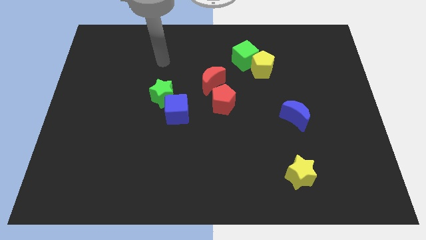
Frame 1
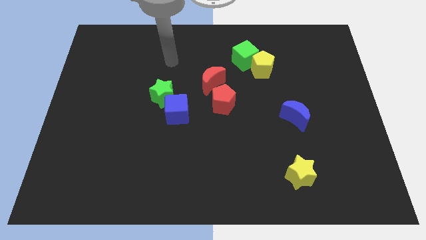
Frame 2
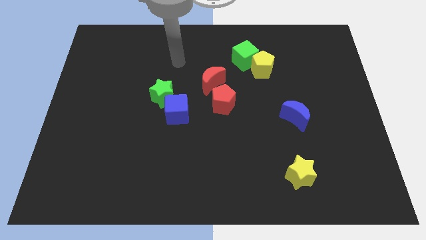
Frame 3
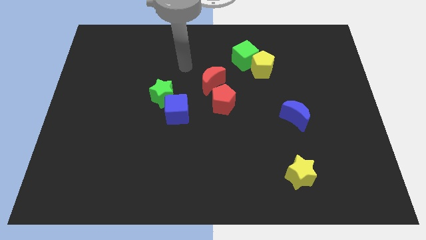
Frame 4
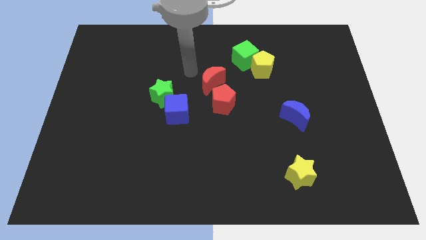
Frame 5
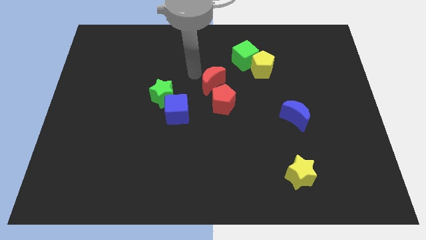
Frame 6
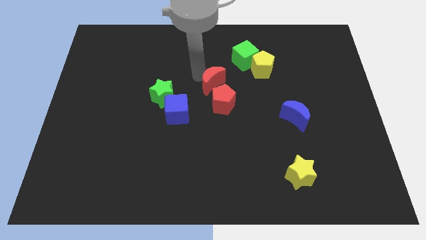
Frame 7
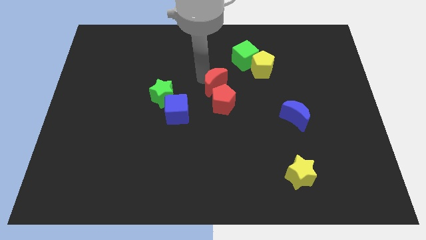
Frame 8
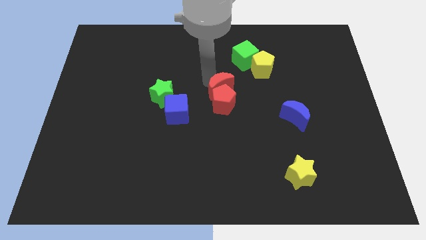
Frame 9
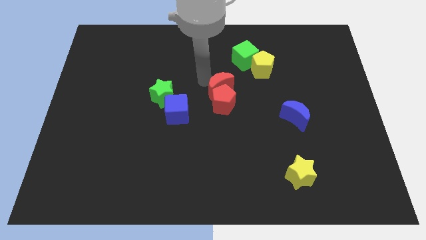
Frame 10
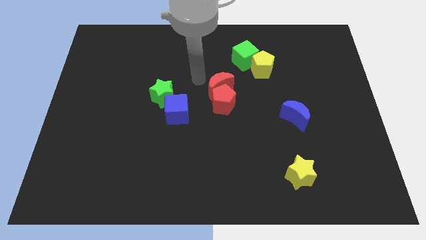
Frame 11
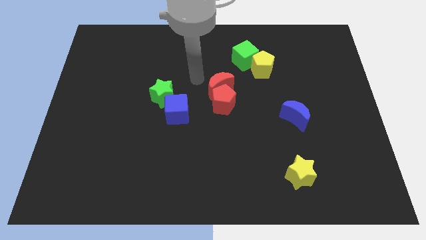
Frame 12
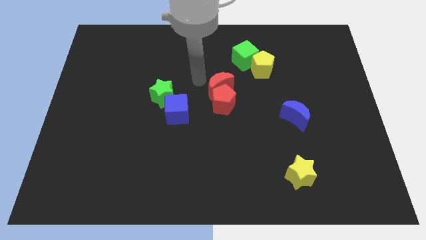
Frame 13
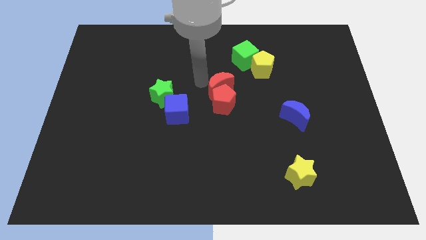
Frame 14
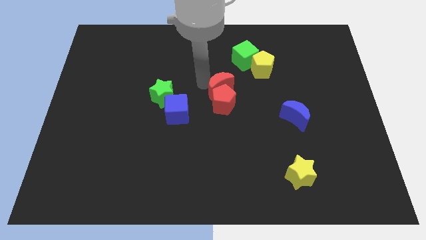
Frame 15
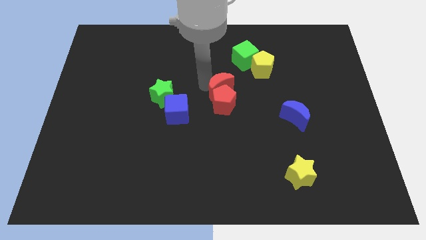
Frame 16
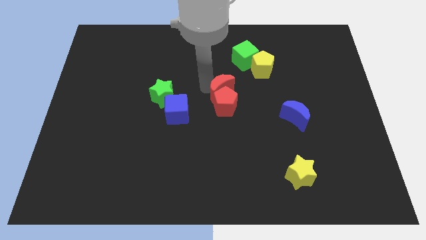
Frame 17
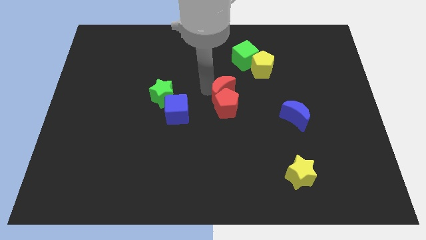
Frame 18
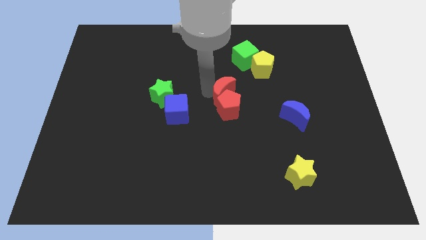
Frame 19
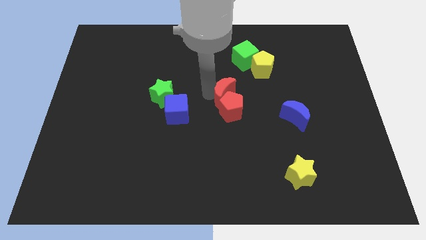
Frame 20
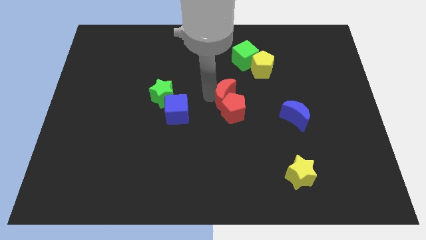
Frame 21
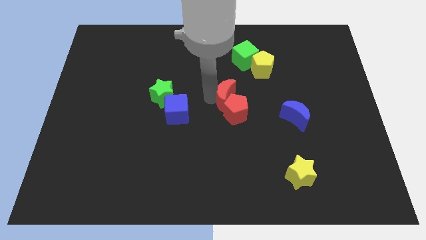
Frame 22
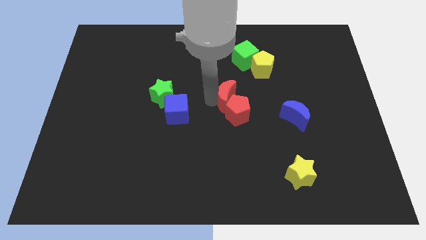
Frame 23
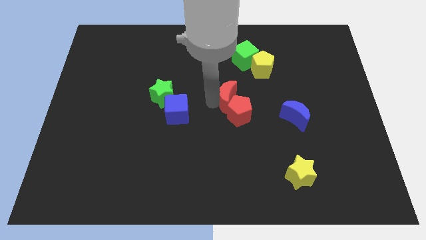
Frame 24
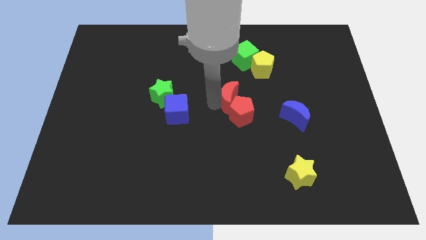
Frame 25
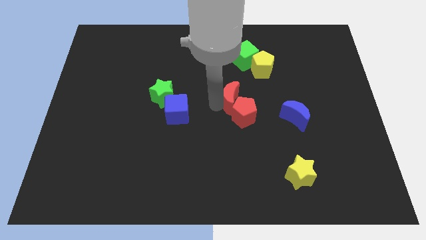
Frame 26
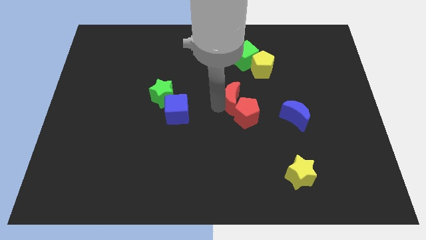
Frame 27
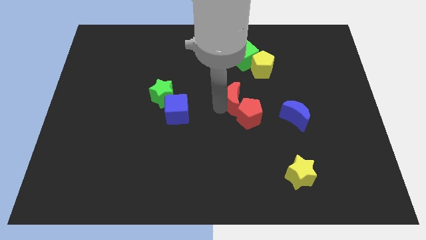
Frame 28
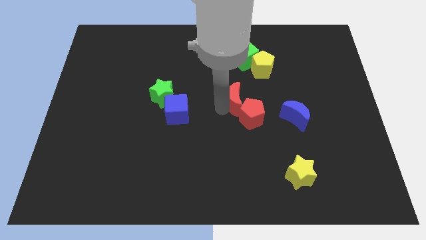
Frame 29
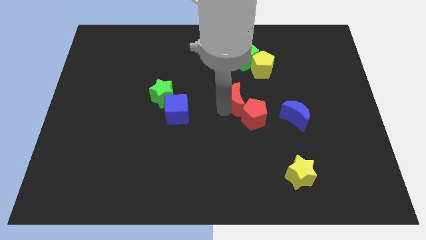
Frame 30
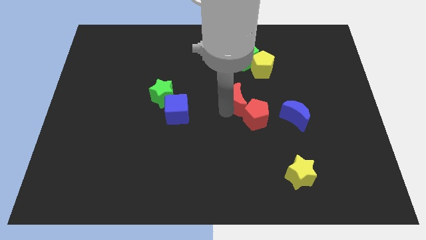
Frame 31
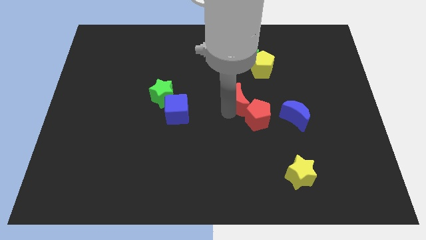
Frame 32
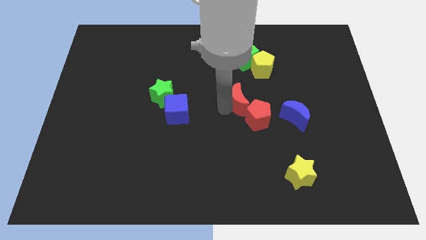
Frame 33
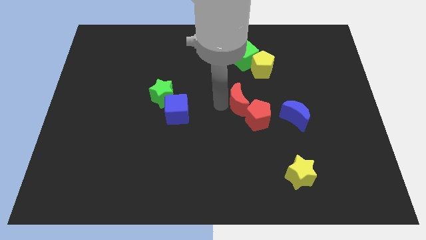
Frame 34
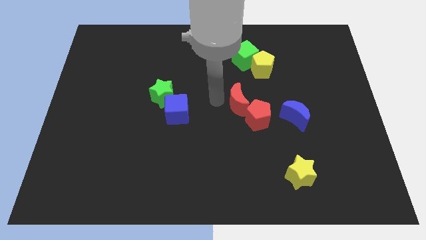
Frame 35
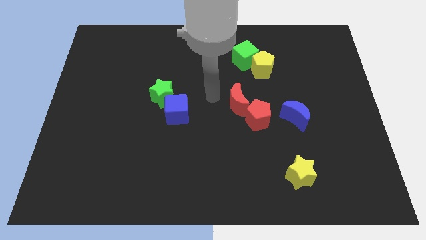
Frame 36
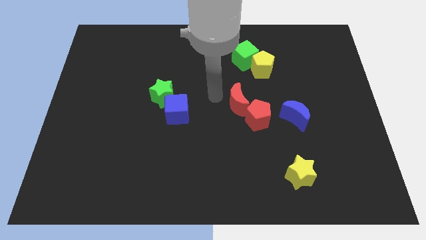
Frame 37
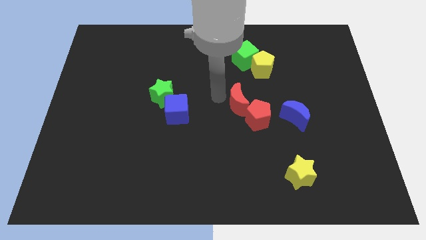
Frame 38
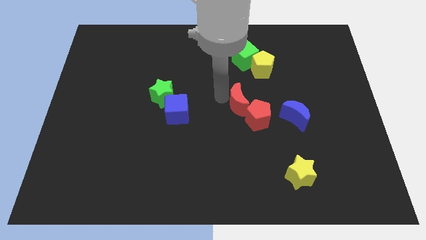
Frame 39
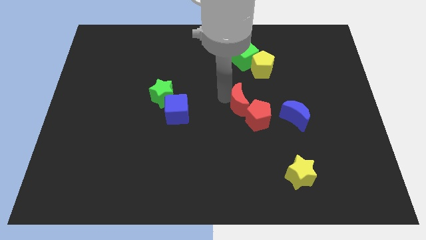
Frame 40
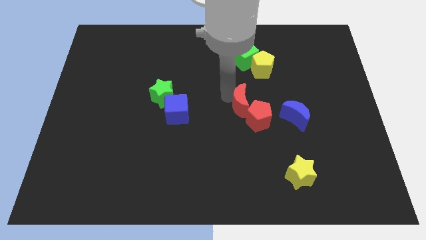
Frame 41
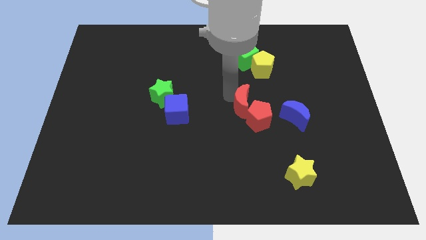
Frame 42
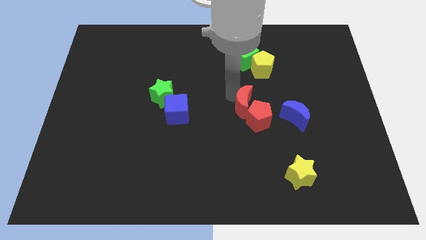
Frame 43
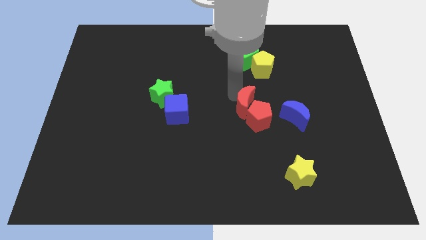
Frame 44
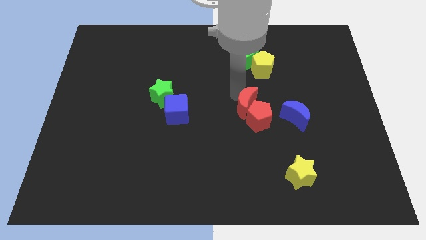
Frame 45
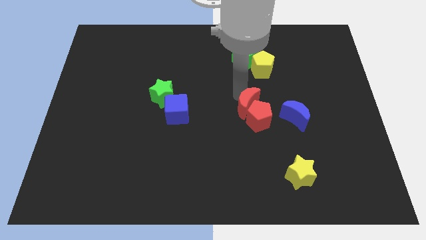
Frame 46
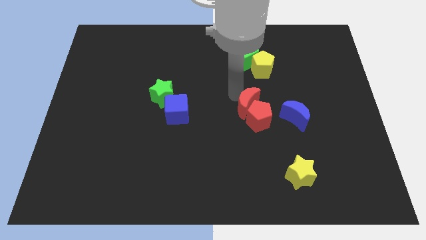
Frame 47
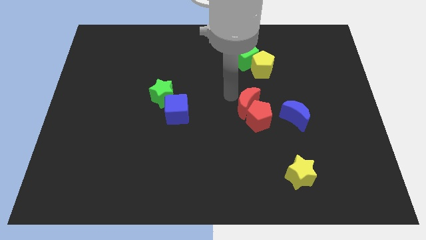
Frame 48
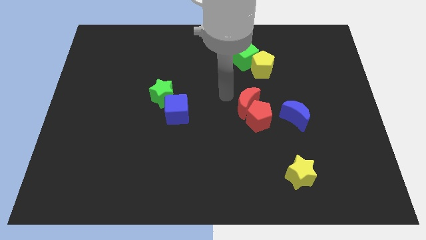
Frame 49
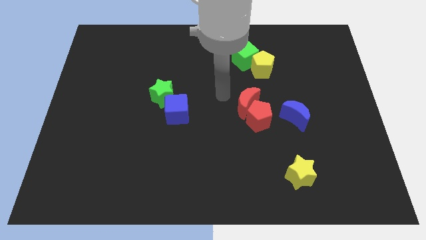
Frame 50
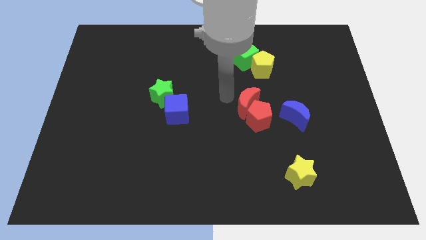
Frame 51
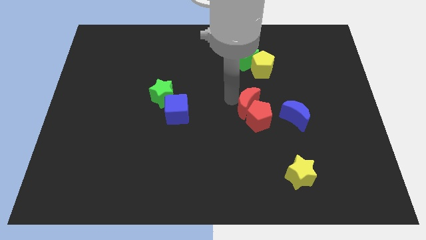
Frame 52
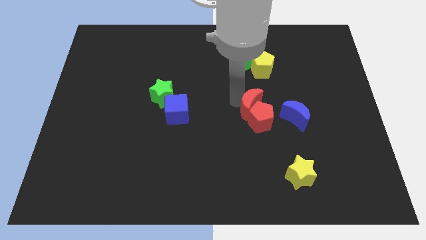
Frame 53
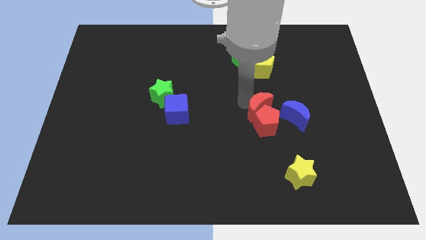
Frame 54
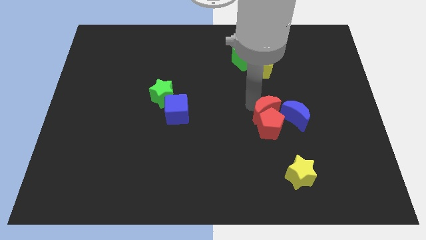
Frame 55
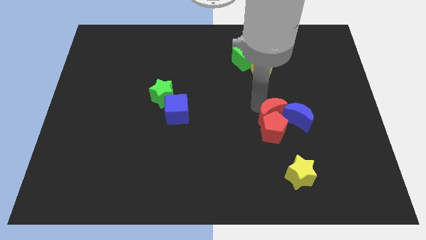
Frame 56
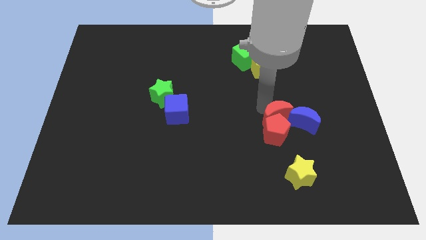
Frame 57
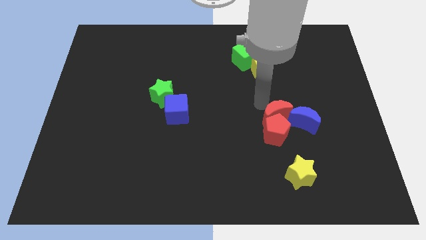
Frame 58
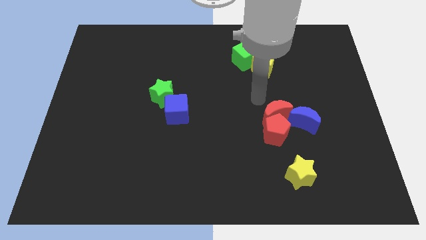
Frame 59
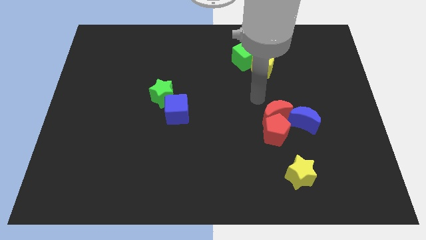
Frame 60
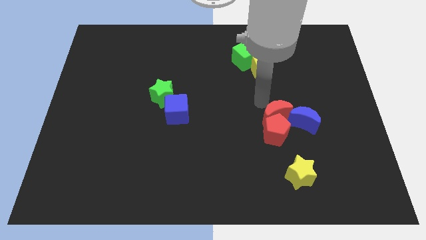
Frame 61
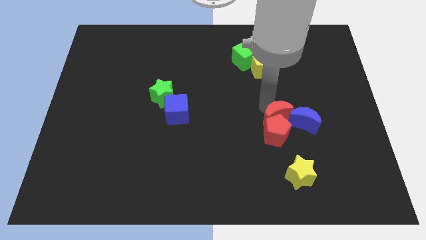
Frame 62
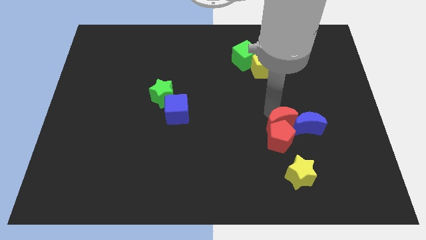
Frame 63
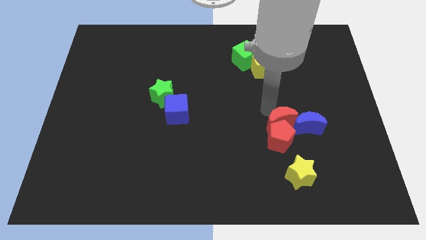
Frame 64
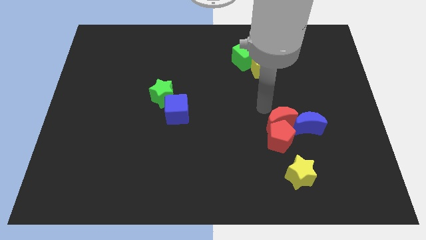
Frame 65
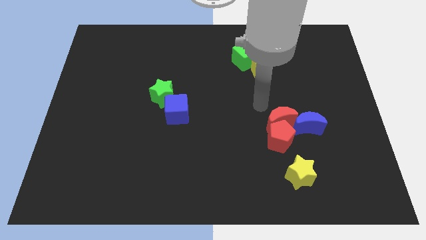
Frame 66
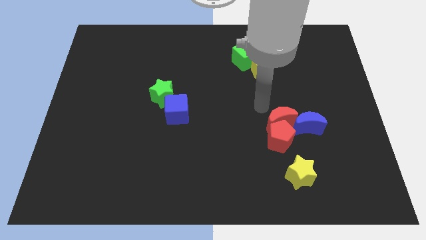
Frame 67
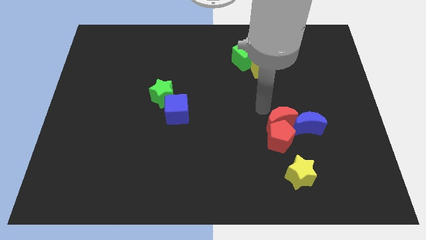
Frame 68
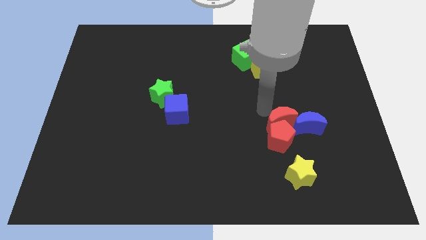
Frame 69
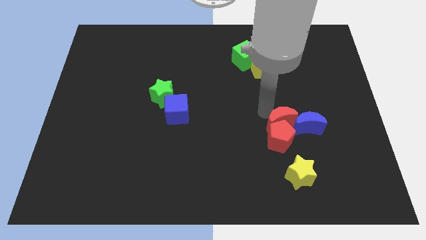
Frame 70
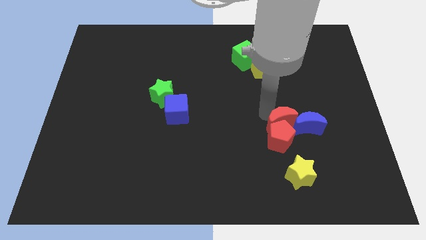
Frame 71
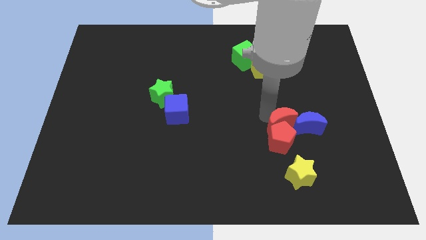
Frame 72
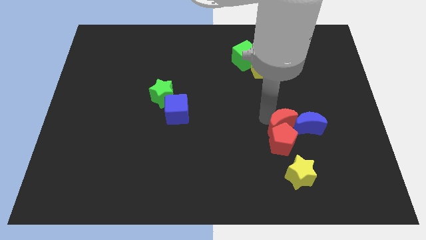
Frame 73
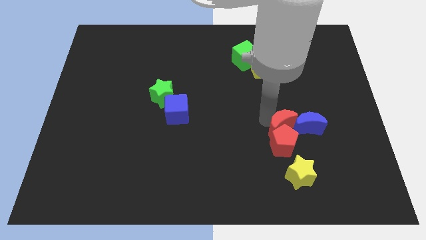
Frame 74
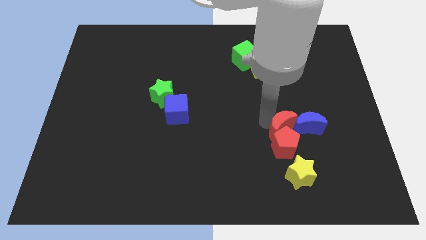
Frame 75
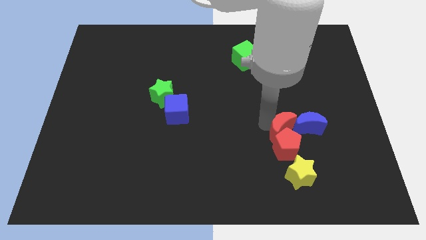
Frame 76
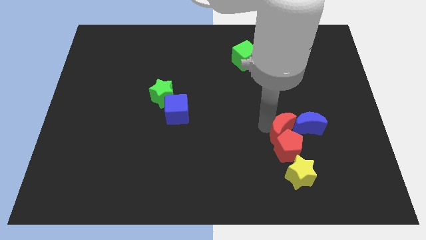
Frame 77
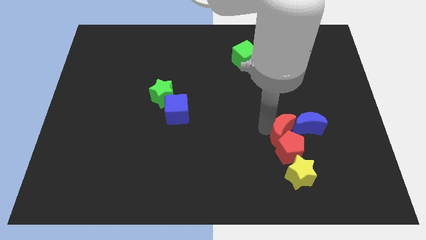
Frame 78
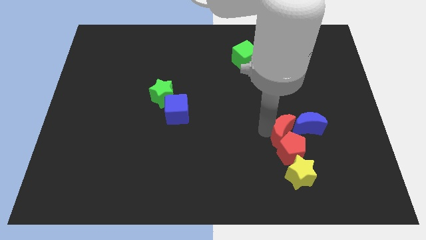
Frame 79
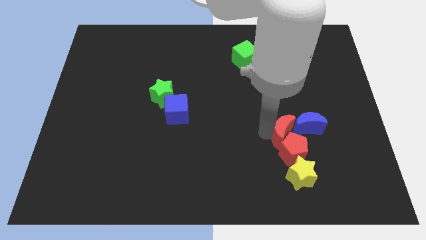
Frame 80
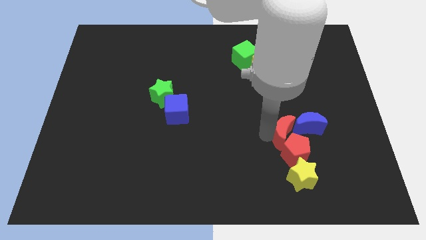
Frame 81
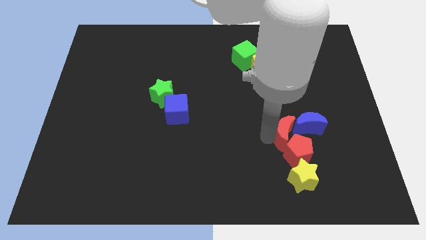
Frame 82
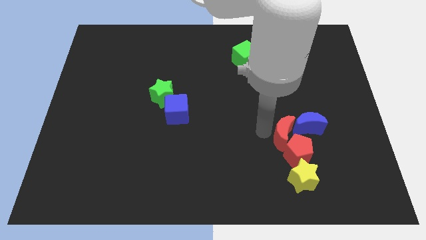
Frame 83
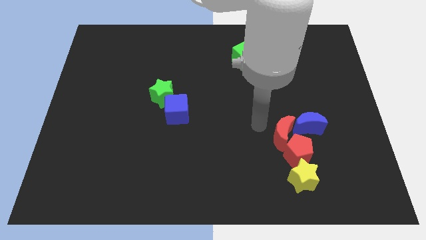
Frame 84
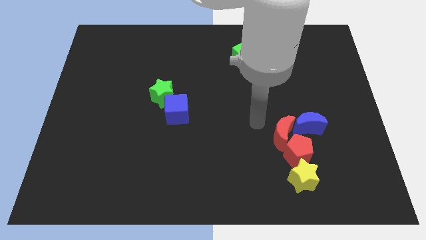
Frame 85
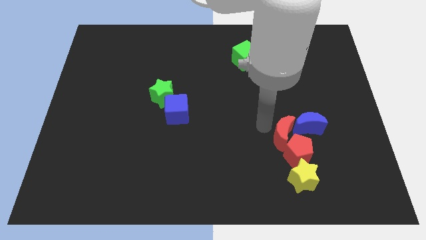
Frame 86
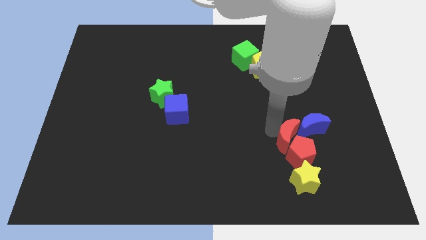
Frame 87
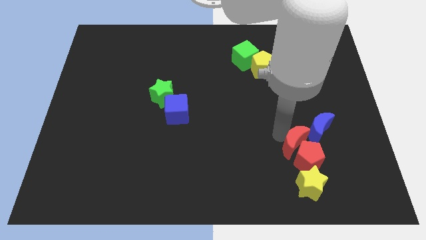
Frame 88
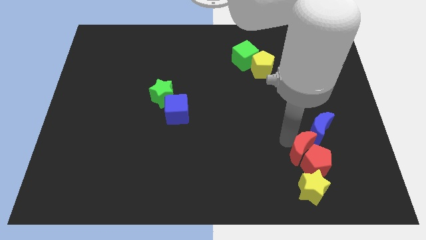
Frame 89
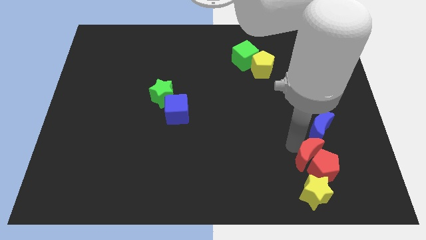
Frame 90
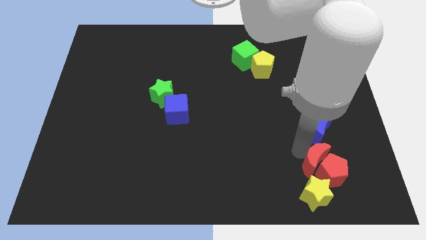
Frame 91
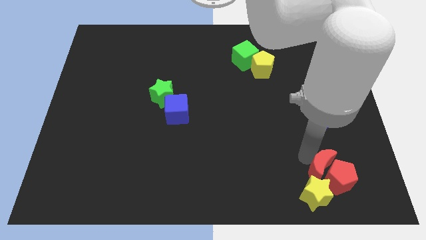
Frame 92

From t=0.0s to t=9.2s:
put the red moon diagonally up and to the right of the yellow star
